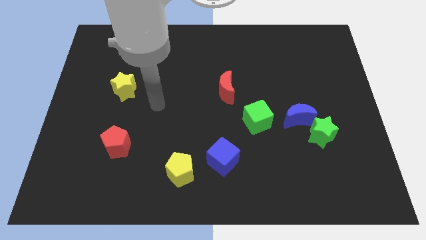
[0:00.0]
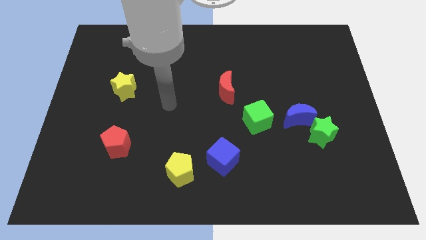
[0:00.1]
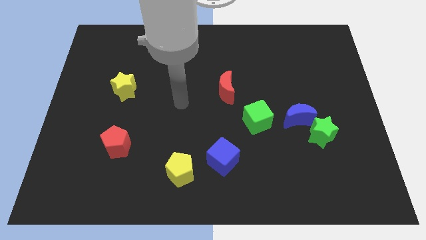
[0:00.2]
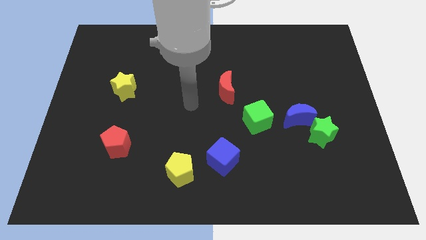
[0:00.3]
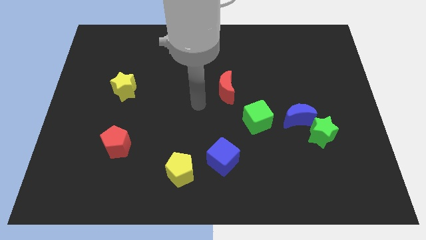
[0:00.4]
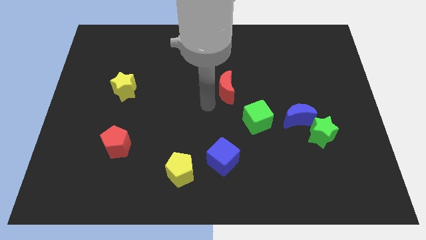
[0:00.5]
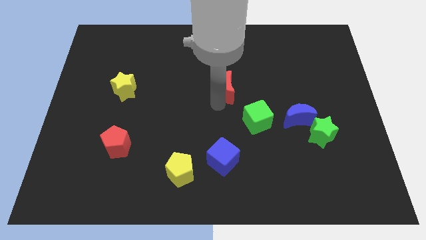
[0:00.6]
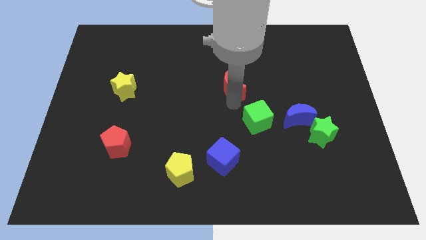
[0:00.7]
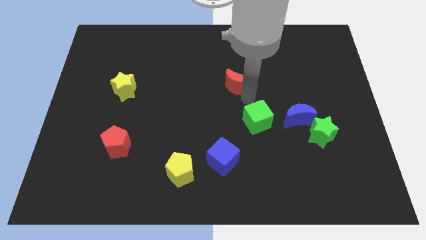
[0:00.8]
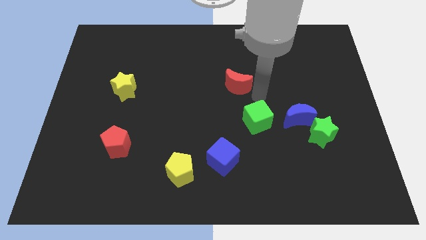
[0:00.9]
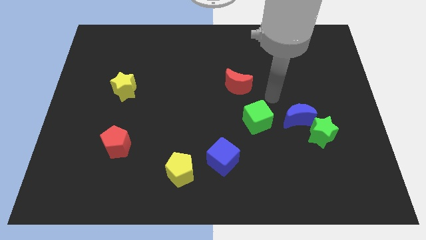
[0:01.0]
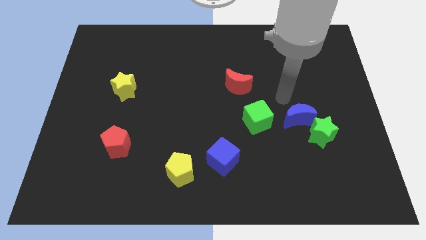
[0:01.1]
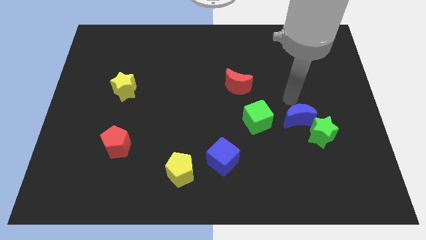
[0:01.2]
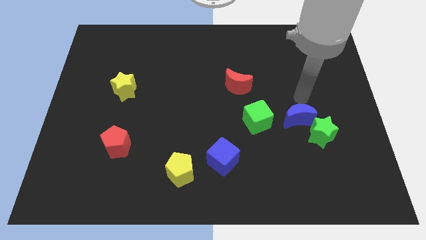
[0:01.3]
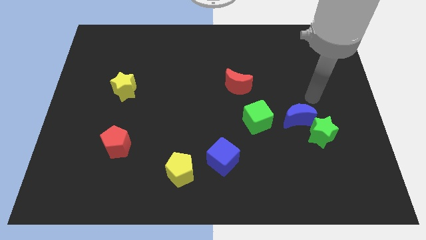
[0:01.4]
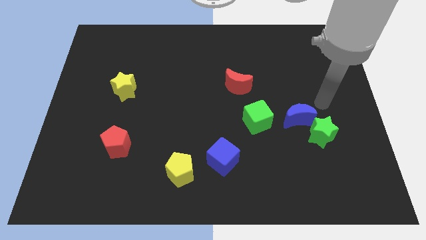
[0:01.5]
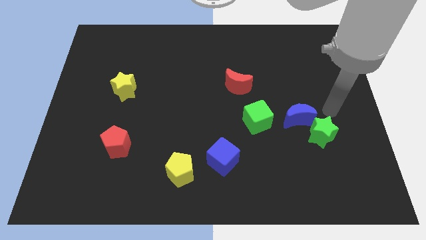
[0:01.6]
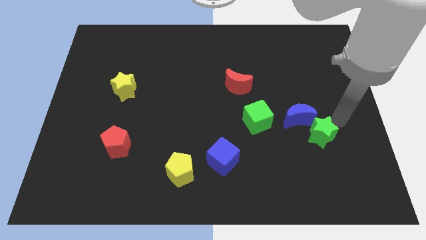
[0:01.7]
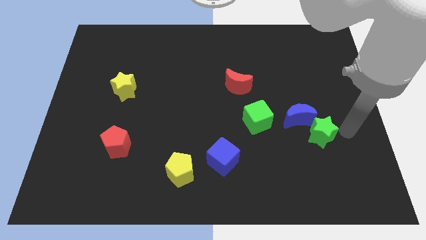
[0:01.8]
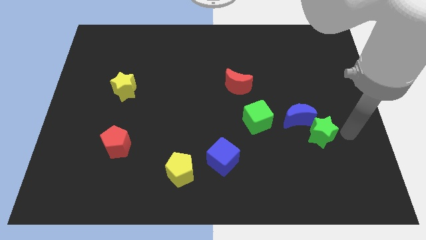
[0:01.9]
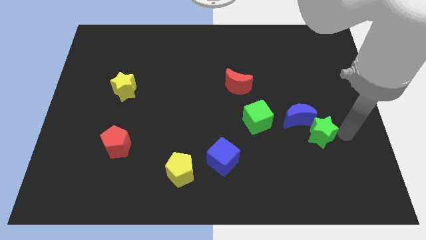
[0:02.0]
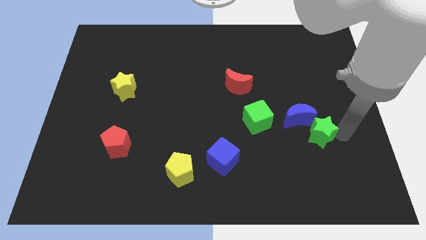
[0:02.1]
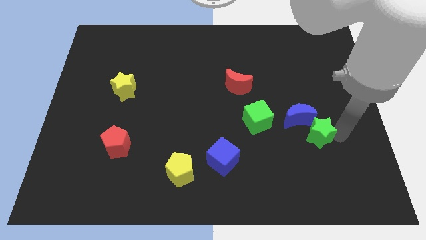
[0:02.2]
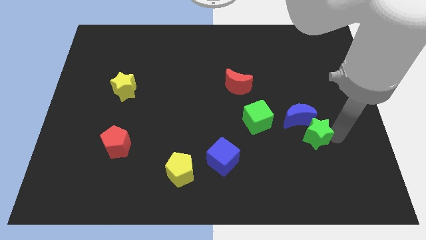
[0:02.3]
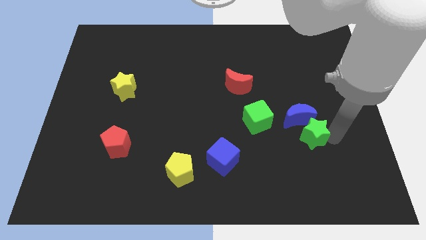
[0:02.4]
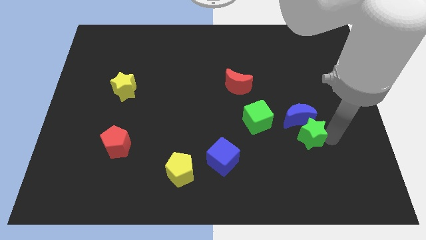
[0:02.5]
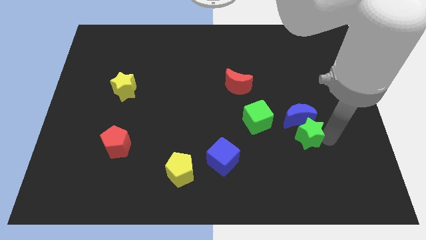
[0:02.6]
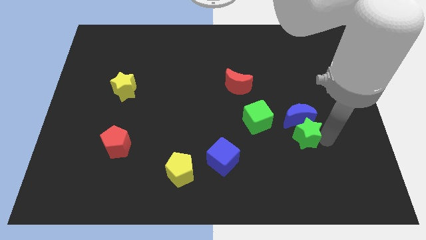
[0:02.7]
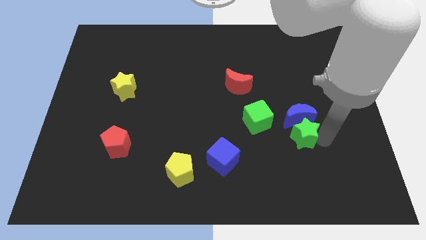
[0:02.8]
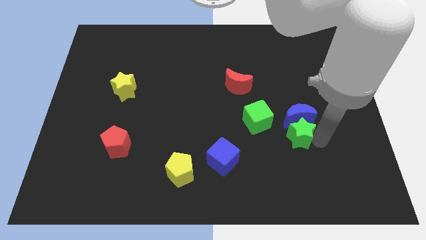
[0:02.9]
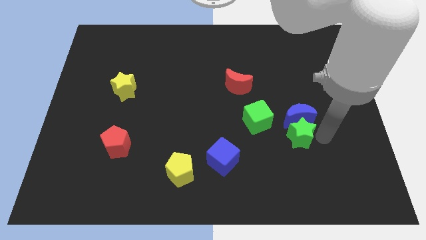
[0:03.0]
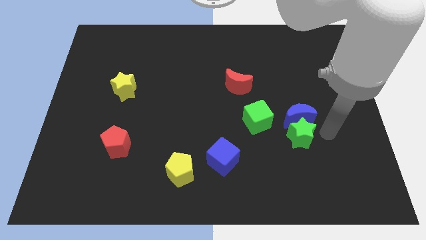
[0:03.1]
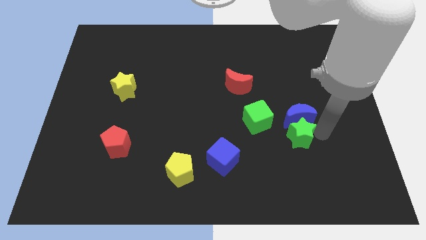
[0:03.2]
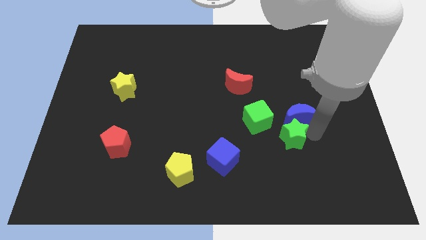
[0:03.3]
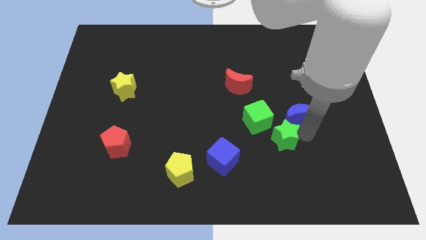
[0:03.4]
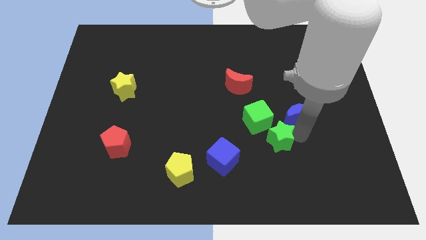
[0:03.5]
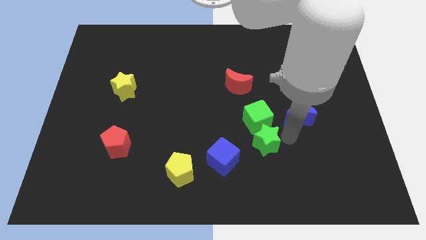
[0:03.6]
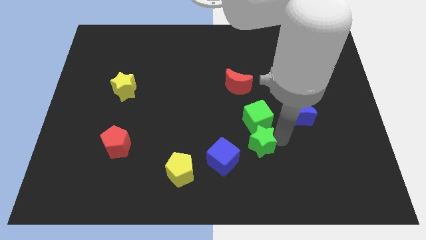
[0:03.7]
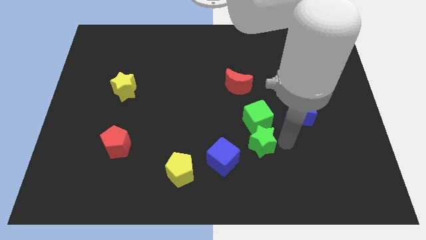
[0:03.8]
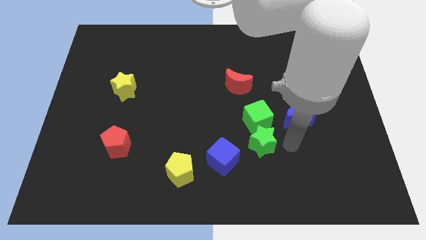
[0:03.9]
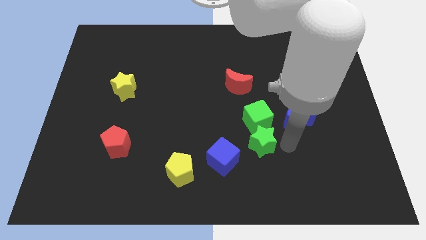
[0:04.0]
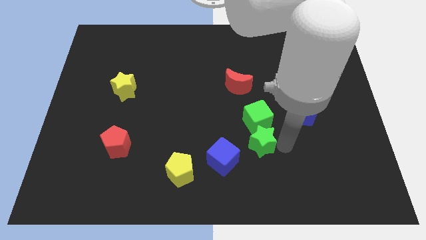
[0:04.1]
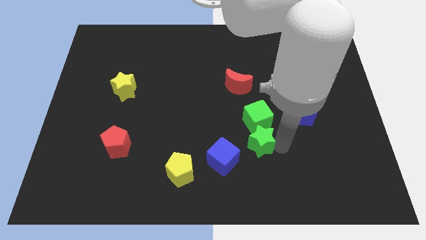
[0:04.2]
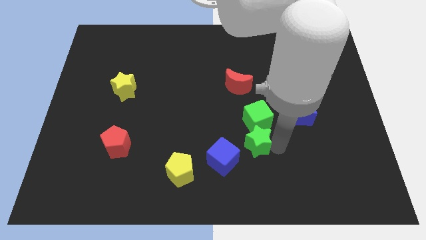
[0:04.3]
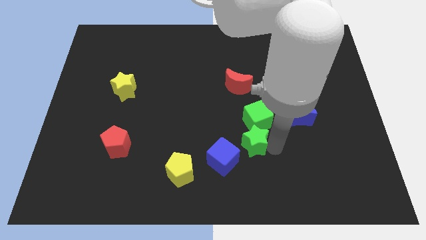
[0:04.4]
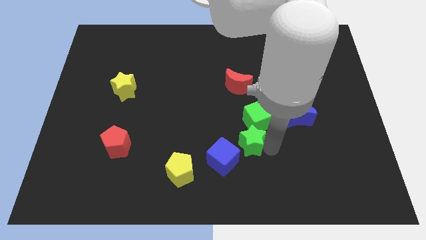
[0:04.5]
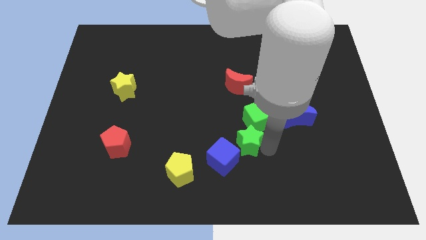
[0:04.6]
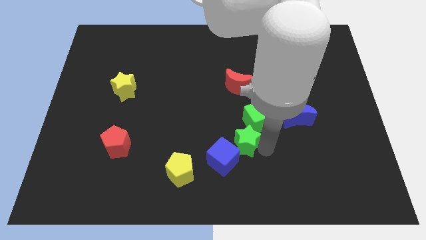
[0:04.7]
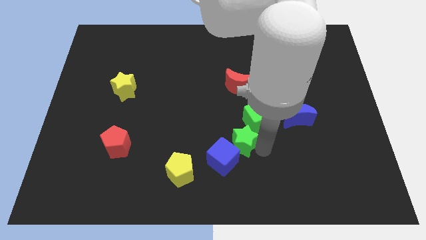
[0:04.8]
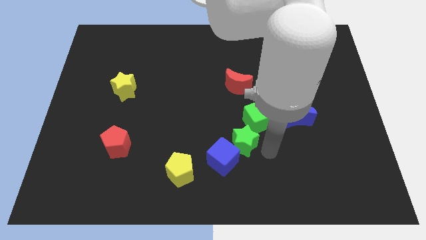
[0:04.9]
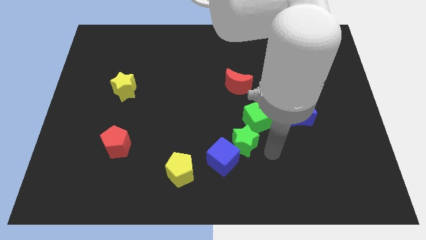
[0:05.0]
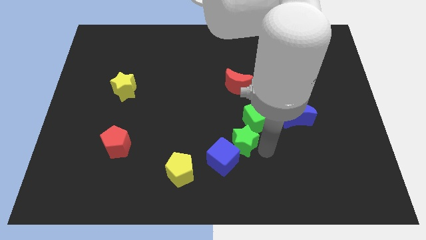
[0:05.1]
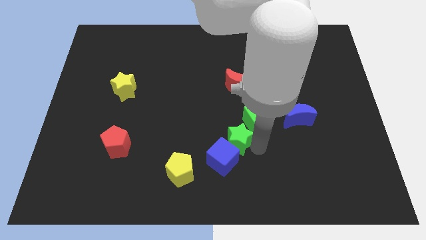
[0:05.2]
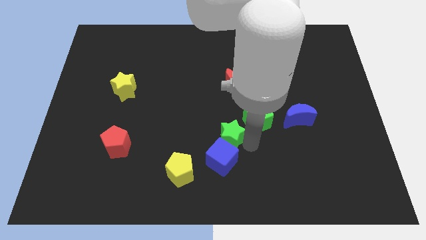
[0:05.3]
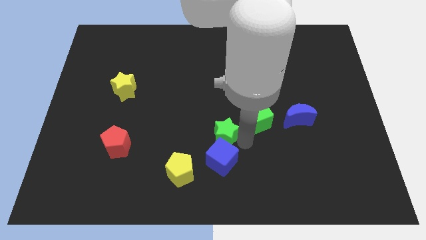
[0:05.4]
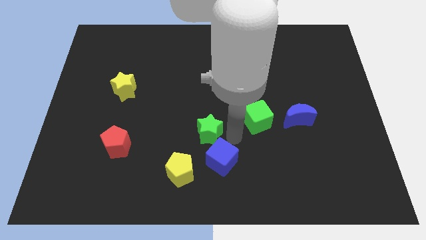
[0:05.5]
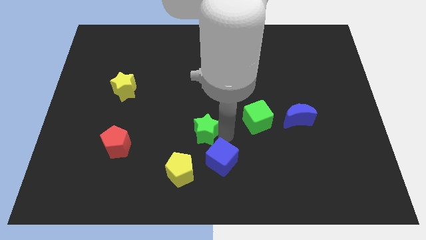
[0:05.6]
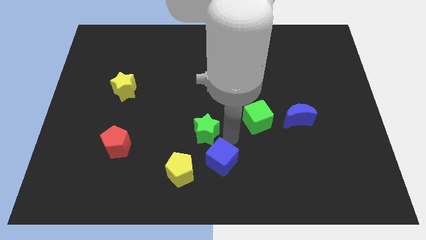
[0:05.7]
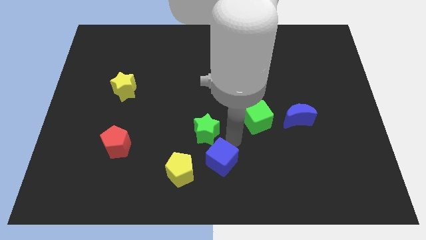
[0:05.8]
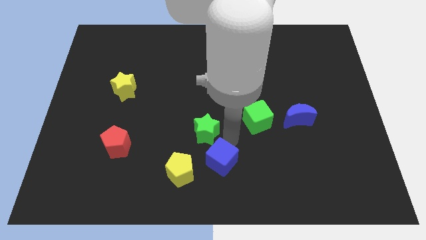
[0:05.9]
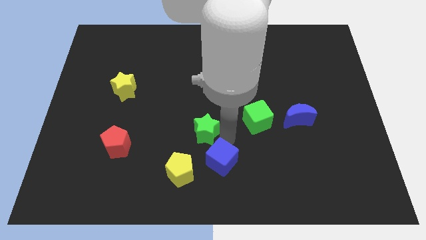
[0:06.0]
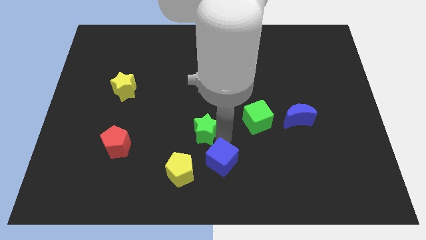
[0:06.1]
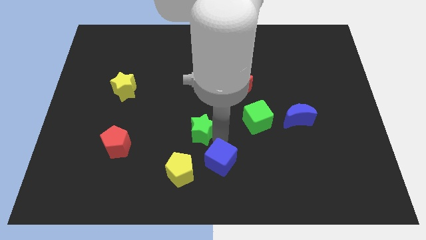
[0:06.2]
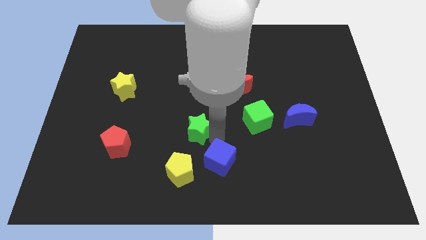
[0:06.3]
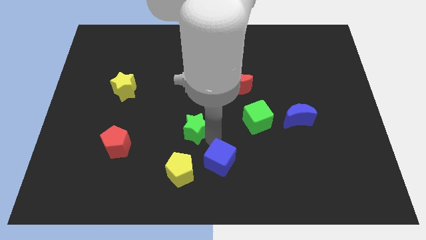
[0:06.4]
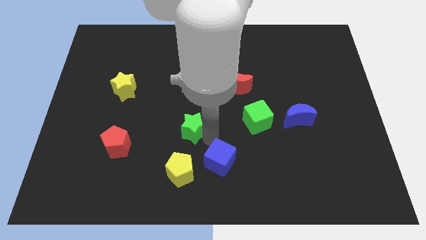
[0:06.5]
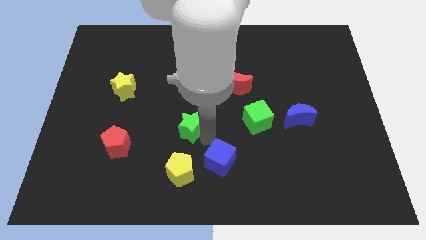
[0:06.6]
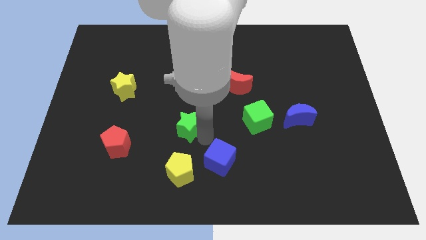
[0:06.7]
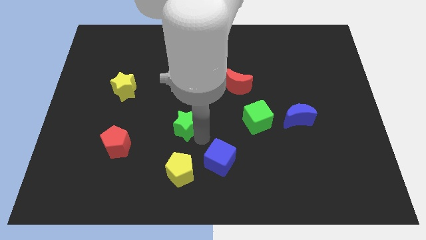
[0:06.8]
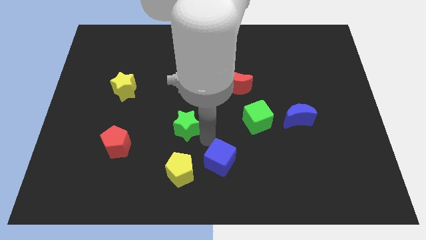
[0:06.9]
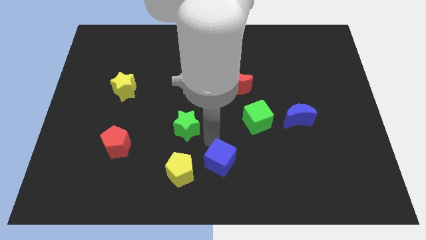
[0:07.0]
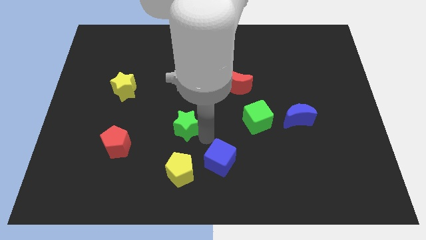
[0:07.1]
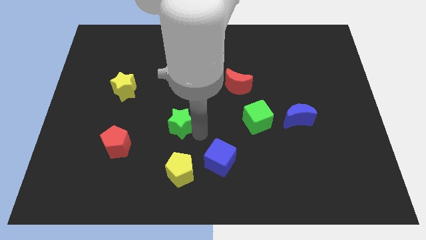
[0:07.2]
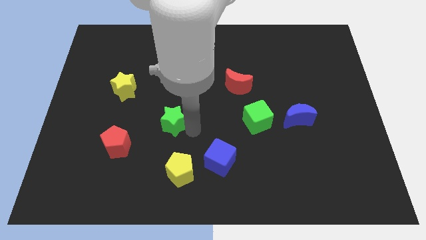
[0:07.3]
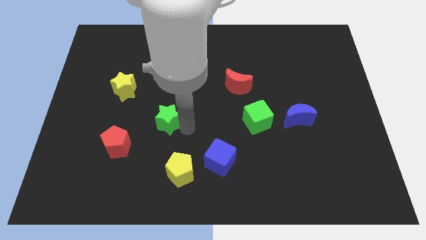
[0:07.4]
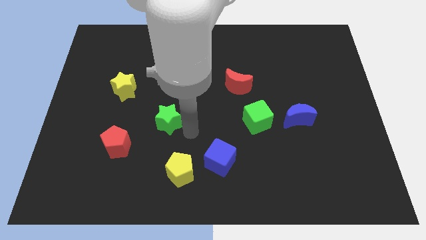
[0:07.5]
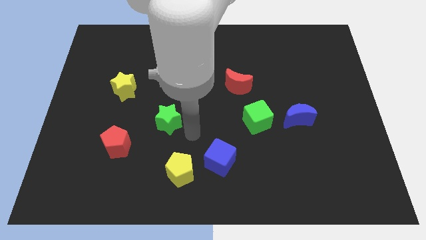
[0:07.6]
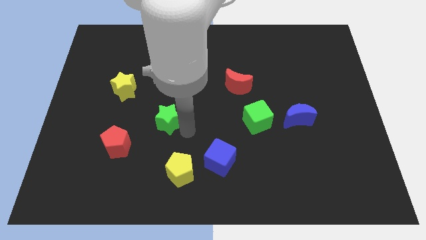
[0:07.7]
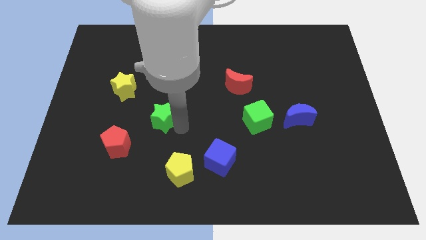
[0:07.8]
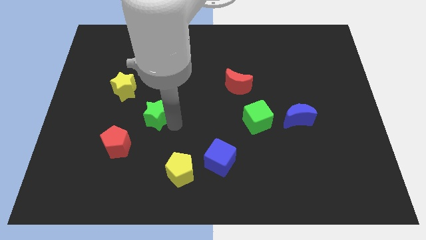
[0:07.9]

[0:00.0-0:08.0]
put the green star diagonally down and to the right of the yellow star
